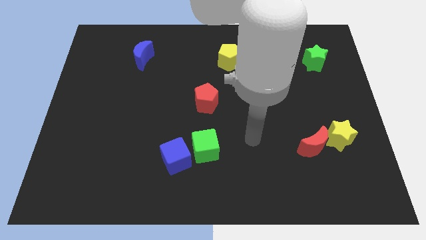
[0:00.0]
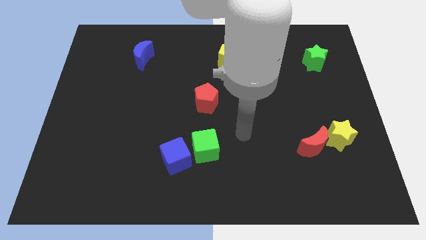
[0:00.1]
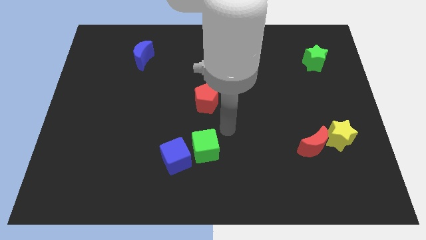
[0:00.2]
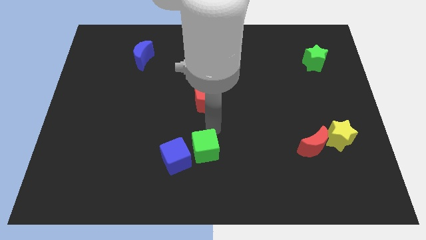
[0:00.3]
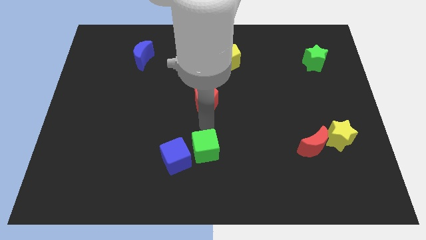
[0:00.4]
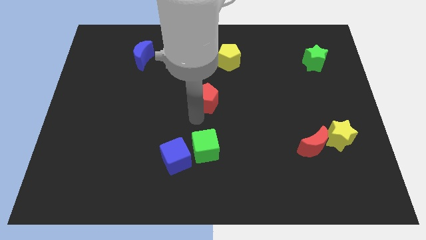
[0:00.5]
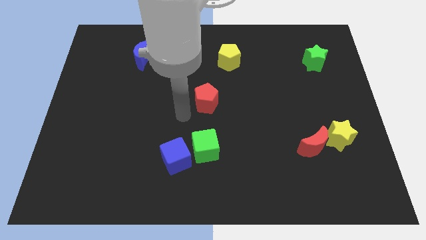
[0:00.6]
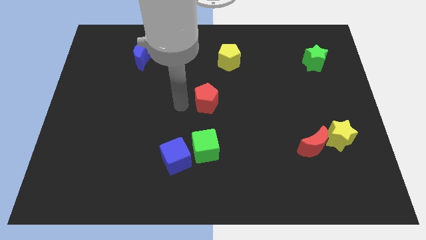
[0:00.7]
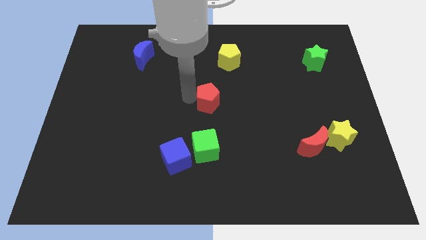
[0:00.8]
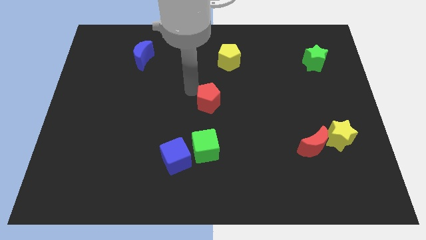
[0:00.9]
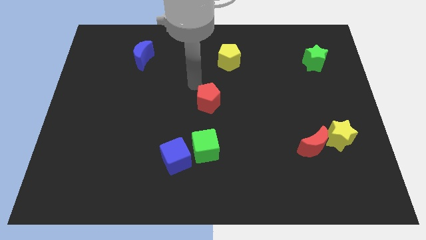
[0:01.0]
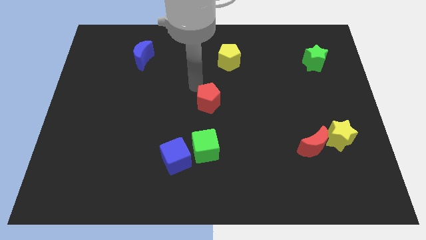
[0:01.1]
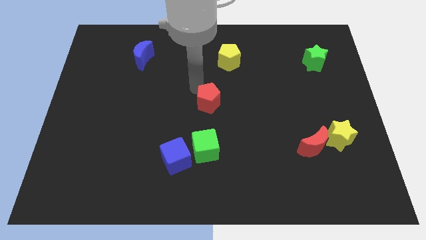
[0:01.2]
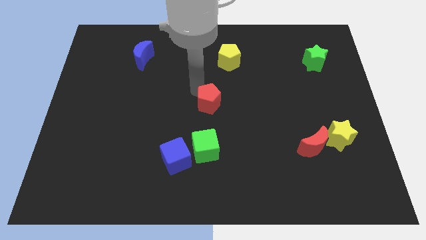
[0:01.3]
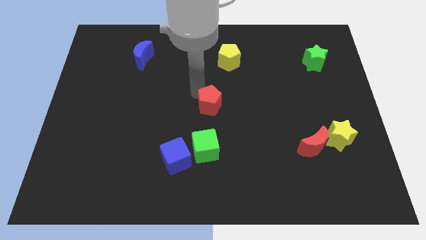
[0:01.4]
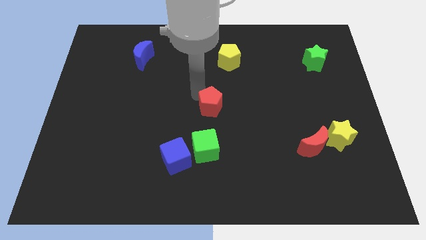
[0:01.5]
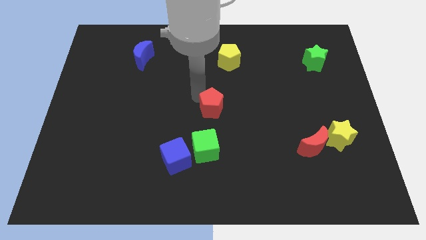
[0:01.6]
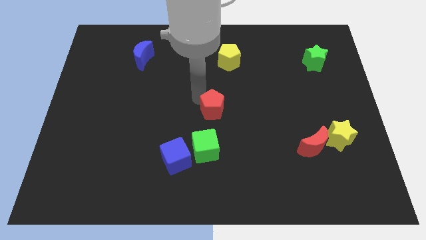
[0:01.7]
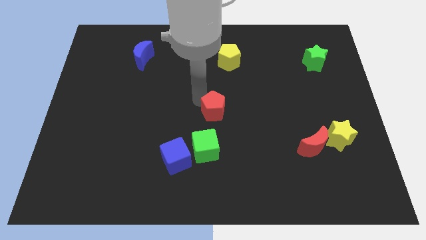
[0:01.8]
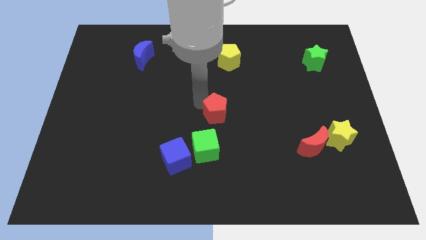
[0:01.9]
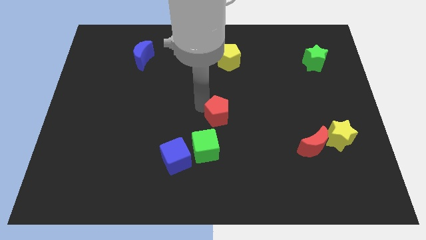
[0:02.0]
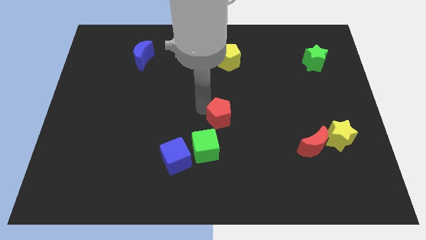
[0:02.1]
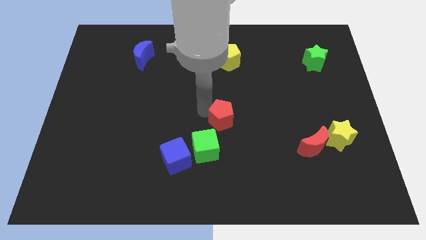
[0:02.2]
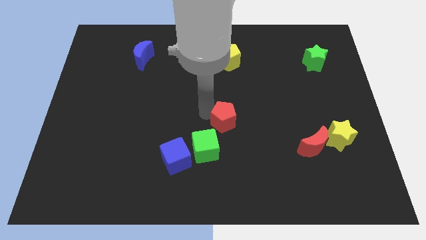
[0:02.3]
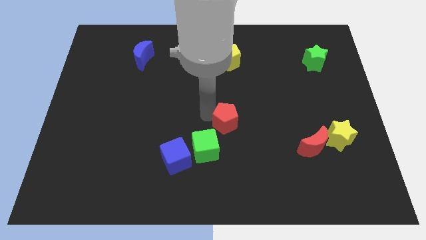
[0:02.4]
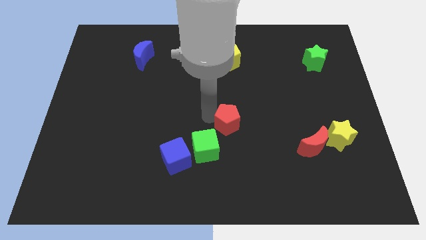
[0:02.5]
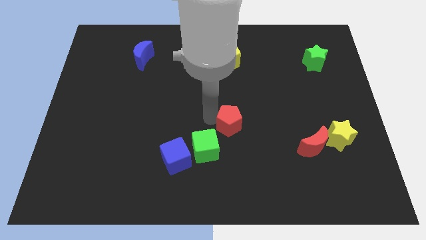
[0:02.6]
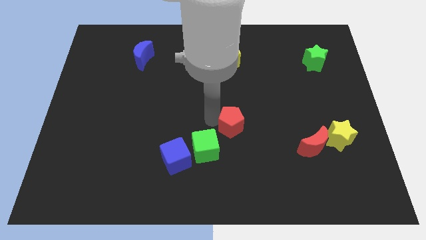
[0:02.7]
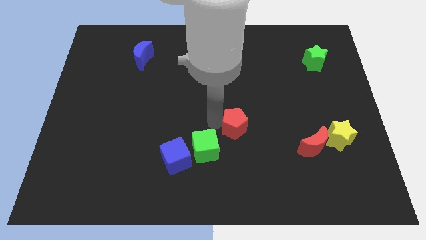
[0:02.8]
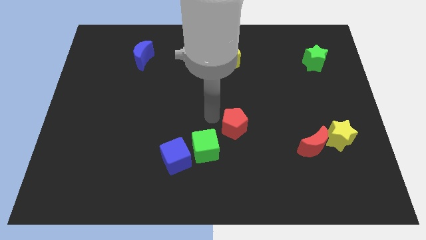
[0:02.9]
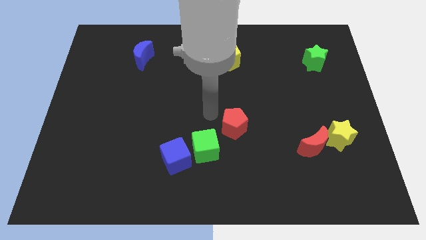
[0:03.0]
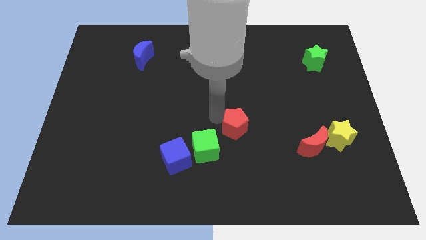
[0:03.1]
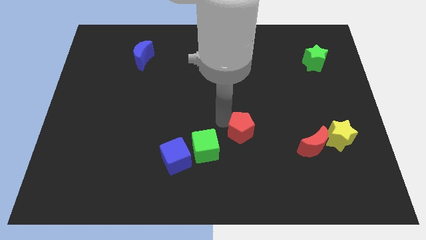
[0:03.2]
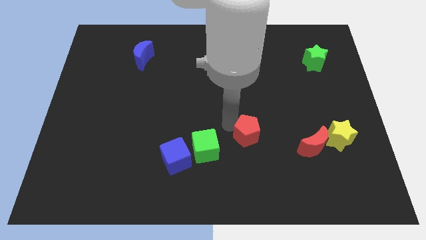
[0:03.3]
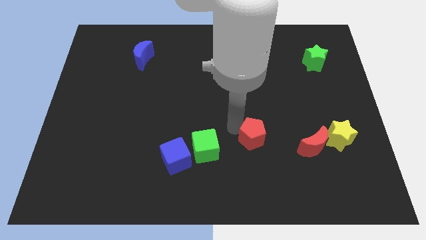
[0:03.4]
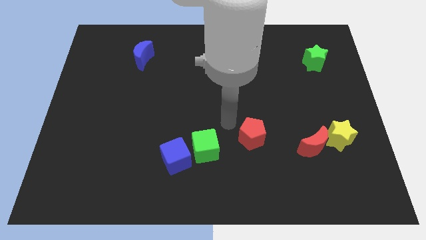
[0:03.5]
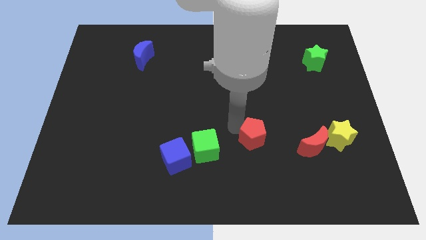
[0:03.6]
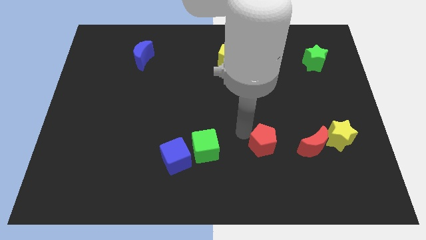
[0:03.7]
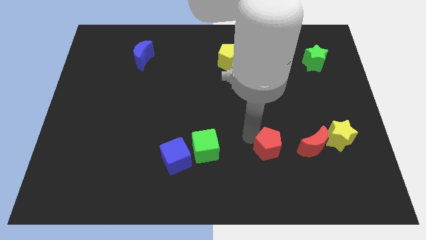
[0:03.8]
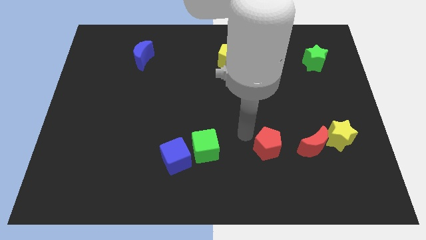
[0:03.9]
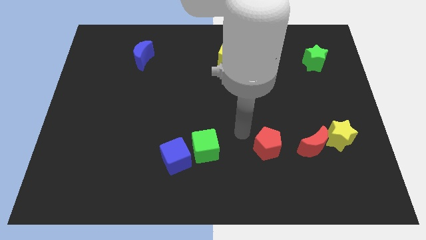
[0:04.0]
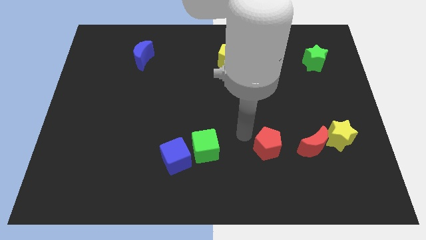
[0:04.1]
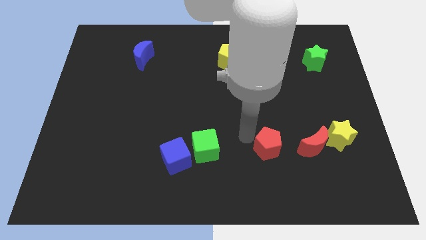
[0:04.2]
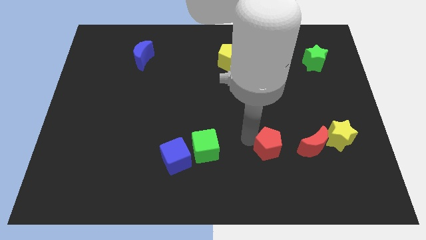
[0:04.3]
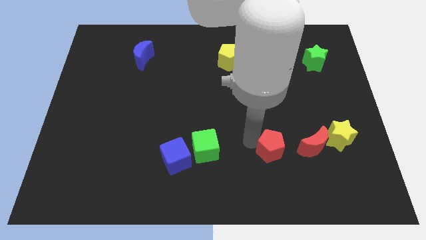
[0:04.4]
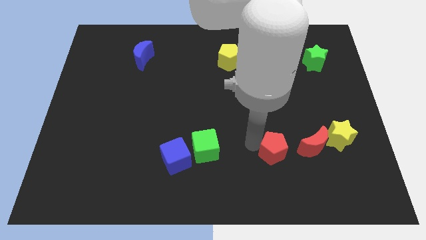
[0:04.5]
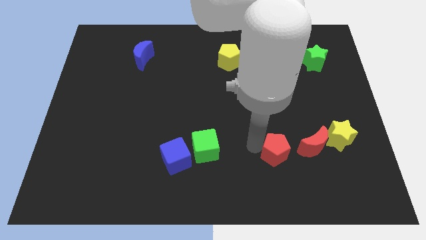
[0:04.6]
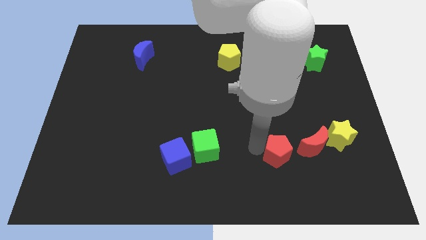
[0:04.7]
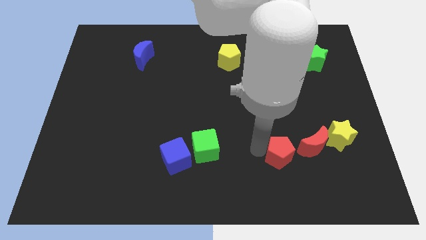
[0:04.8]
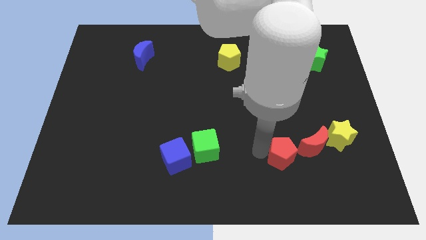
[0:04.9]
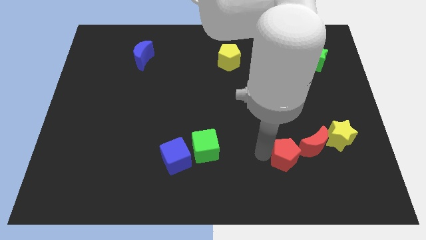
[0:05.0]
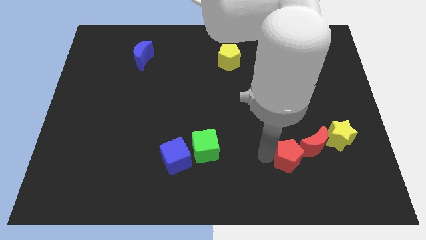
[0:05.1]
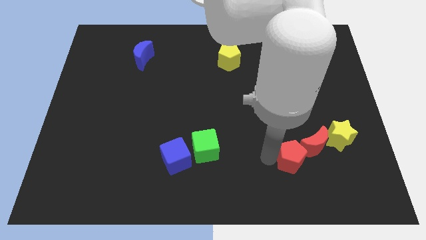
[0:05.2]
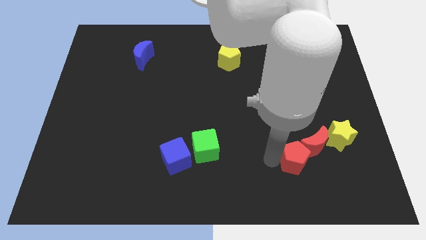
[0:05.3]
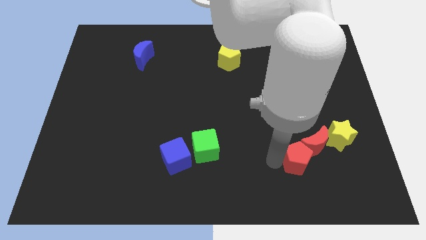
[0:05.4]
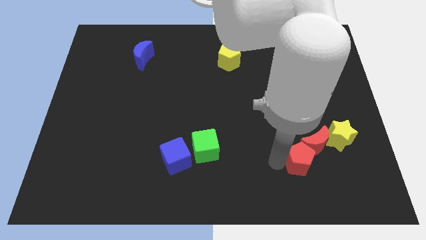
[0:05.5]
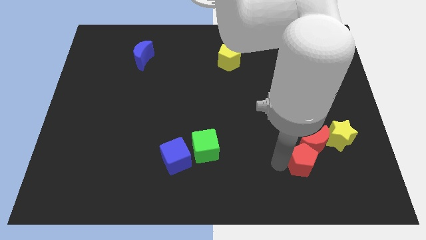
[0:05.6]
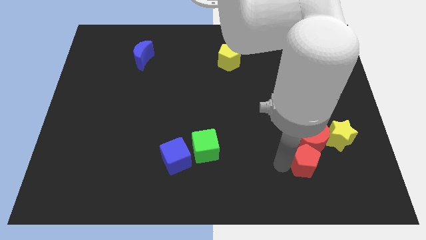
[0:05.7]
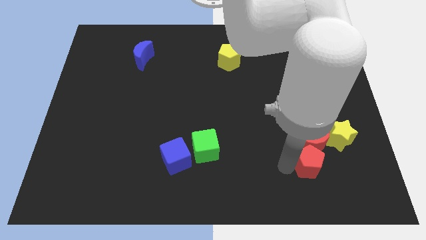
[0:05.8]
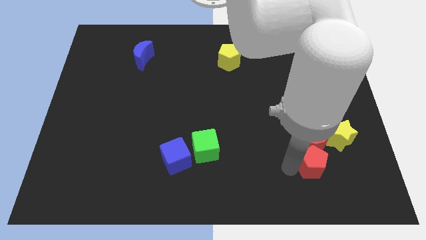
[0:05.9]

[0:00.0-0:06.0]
move the red pentagon to the bottom right of the red moon
